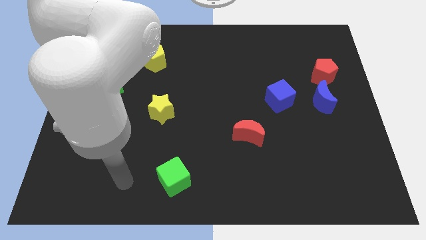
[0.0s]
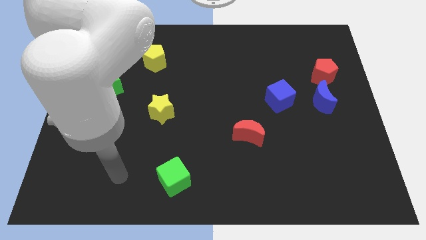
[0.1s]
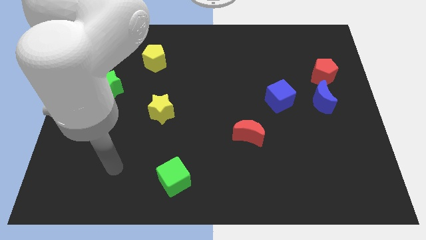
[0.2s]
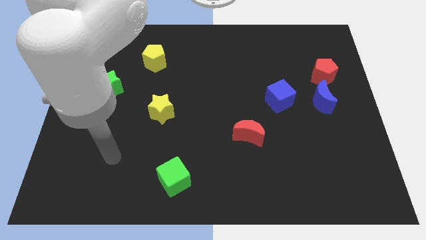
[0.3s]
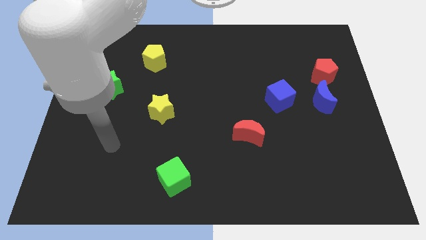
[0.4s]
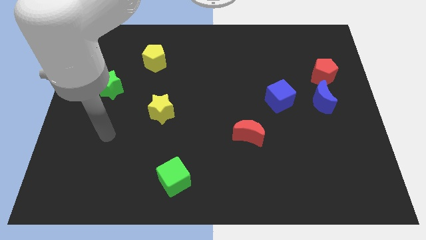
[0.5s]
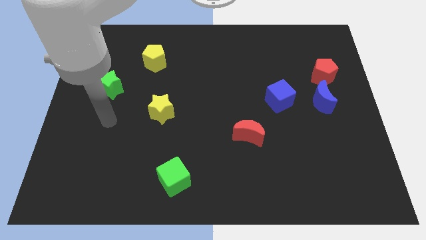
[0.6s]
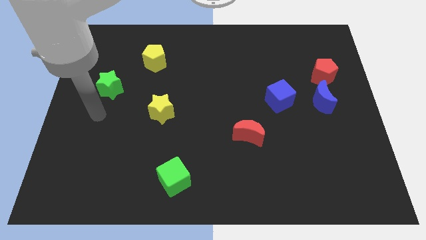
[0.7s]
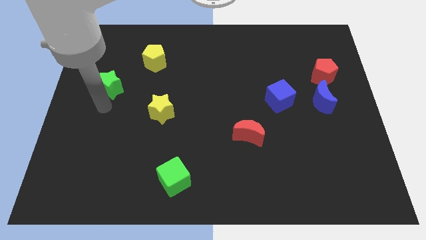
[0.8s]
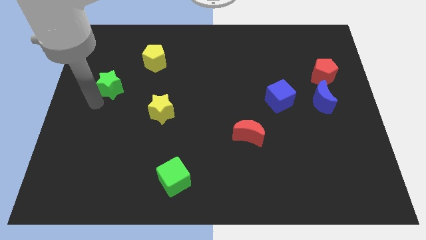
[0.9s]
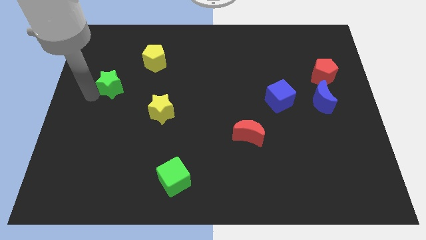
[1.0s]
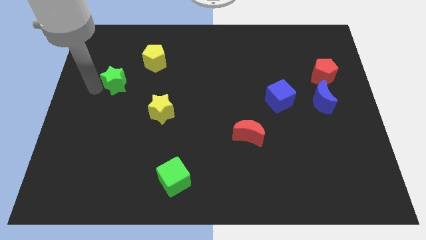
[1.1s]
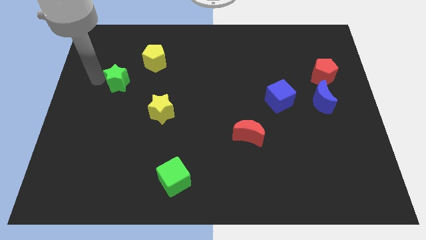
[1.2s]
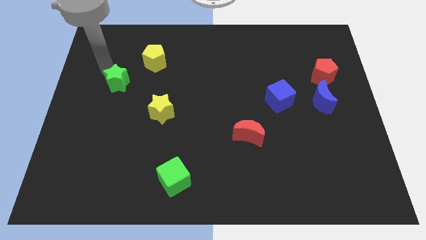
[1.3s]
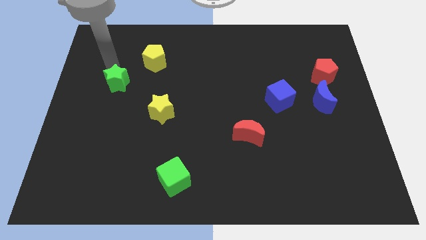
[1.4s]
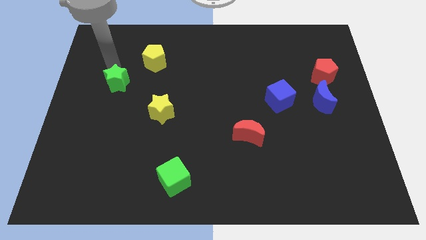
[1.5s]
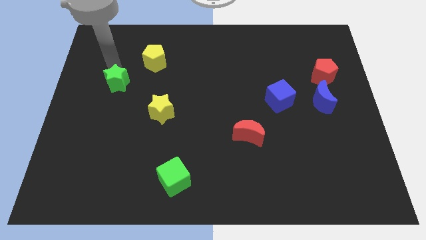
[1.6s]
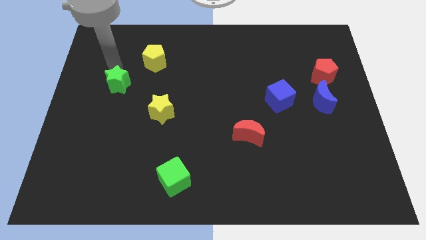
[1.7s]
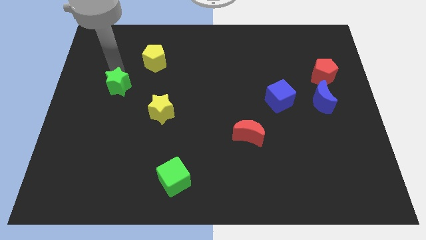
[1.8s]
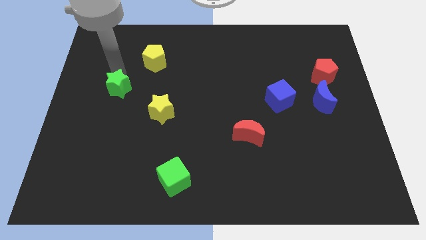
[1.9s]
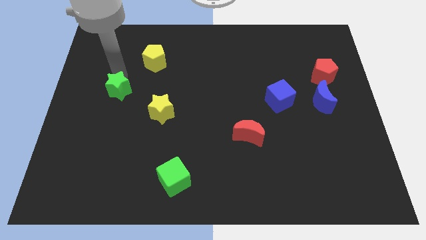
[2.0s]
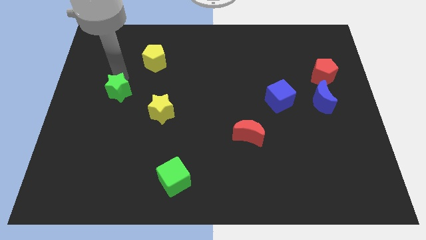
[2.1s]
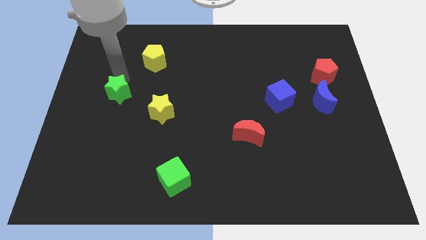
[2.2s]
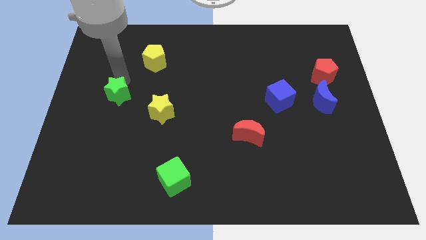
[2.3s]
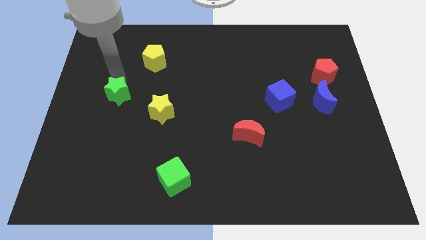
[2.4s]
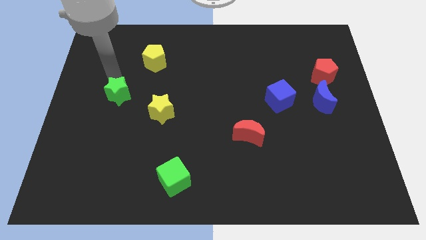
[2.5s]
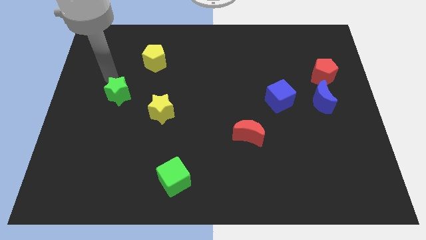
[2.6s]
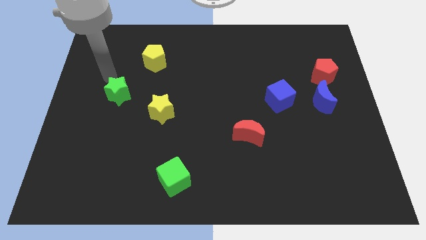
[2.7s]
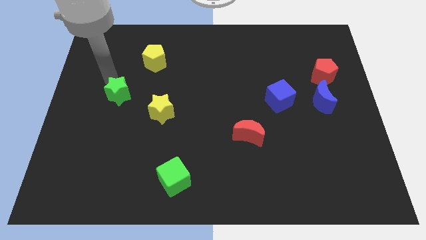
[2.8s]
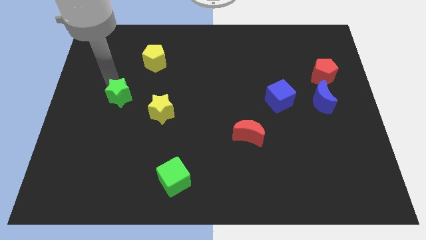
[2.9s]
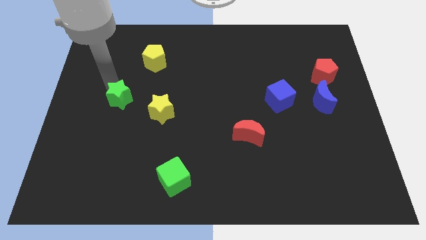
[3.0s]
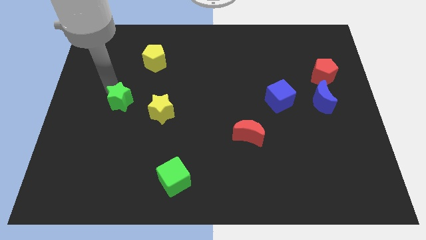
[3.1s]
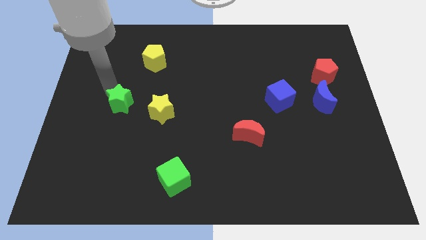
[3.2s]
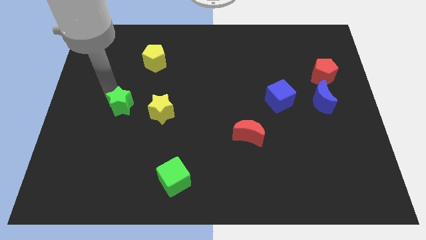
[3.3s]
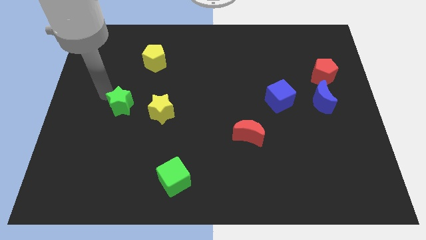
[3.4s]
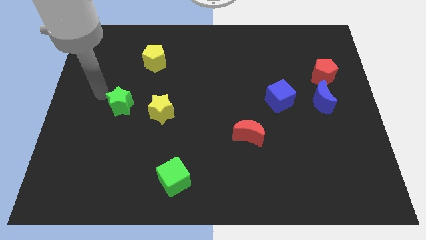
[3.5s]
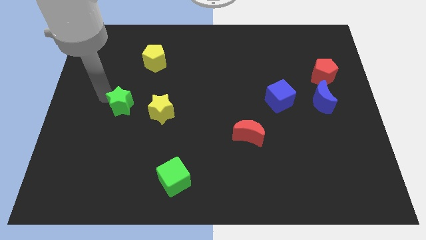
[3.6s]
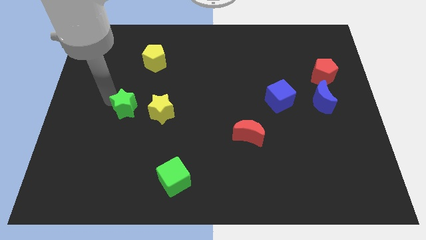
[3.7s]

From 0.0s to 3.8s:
move the green star somewhat downwards and to the right

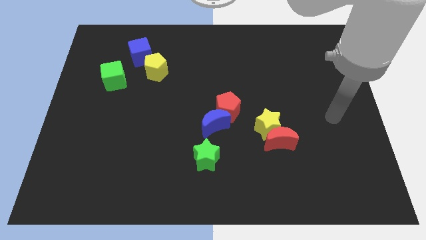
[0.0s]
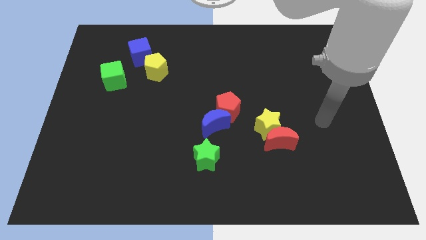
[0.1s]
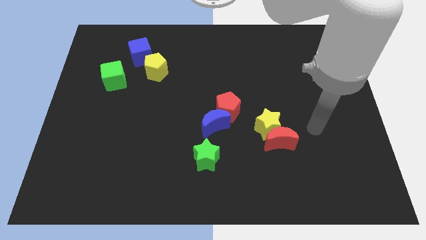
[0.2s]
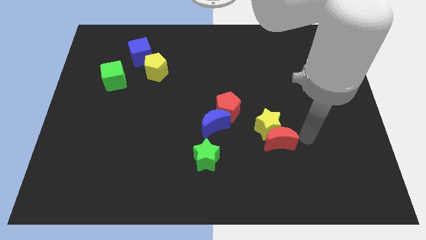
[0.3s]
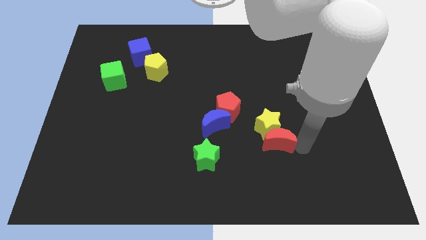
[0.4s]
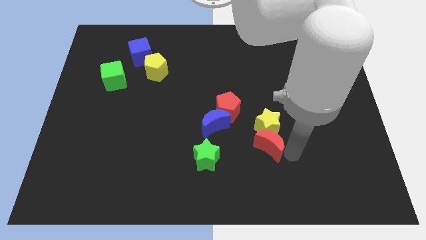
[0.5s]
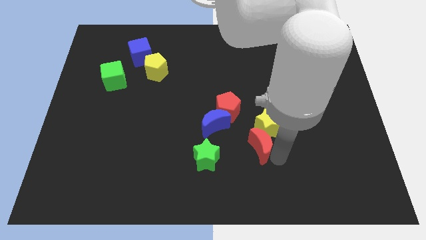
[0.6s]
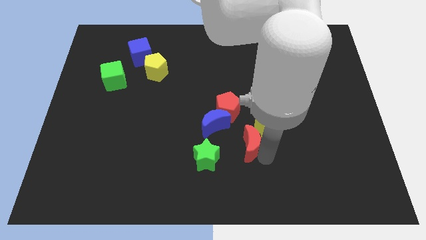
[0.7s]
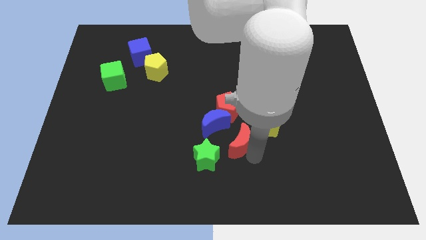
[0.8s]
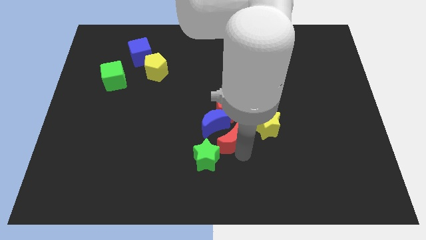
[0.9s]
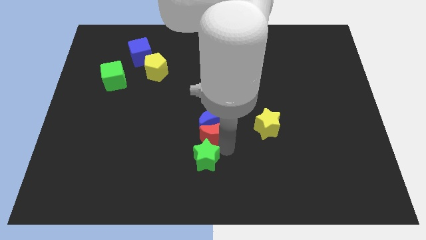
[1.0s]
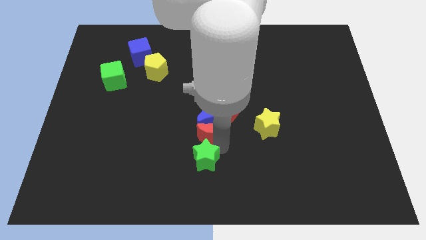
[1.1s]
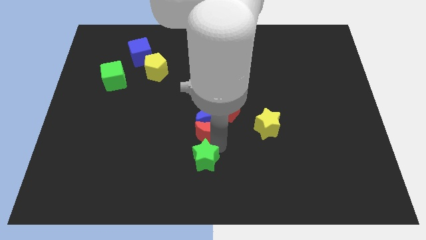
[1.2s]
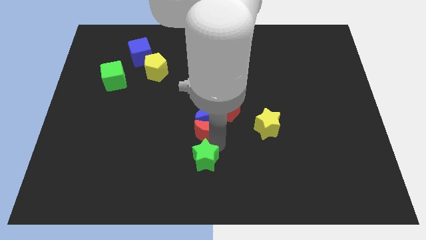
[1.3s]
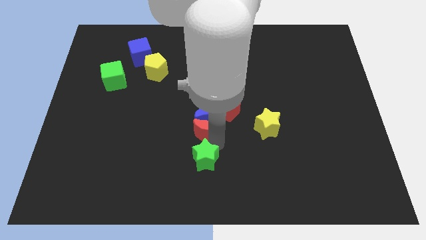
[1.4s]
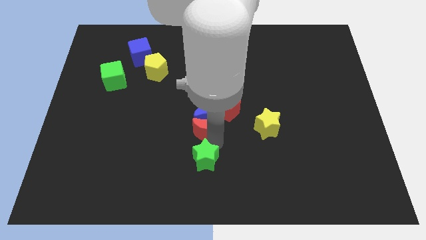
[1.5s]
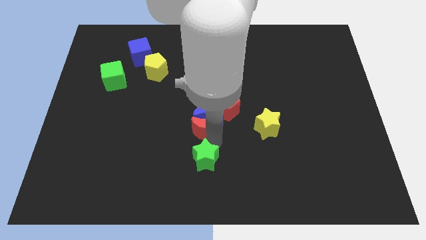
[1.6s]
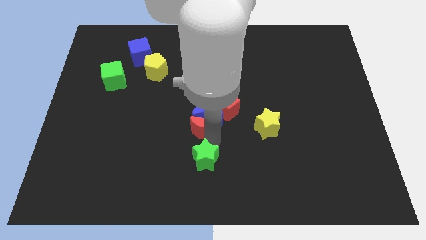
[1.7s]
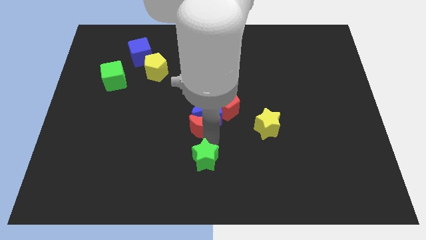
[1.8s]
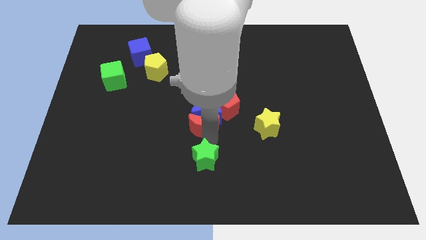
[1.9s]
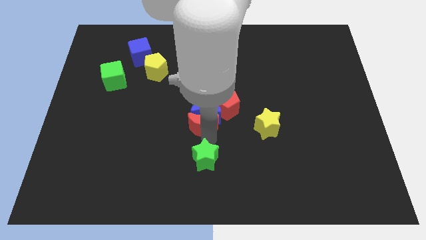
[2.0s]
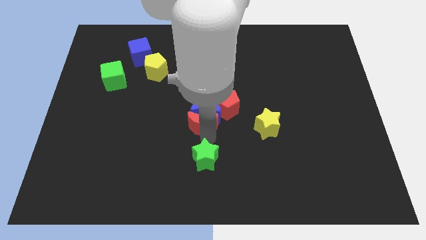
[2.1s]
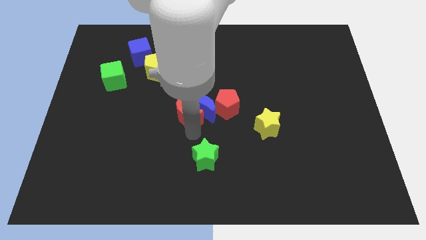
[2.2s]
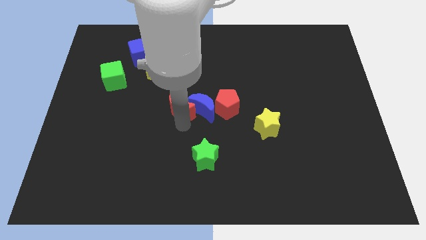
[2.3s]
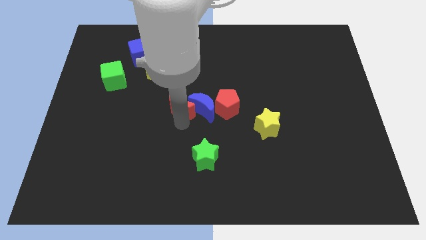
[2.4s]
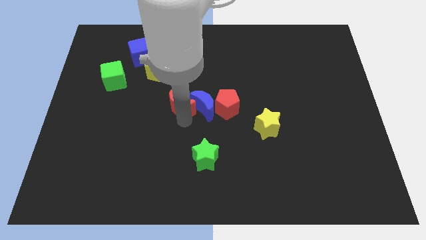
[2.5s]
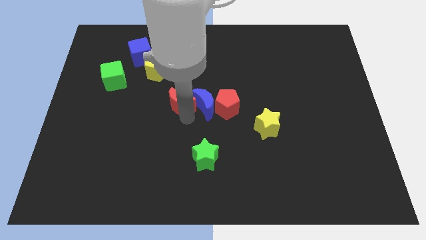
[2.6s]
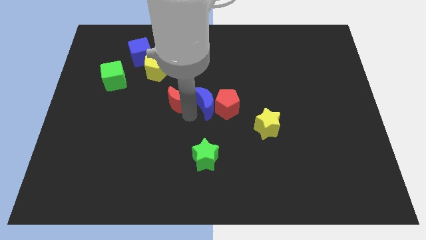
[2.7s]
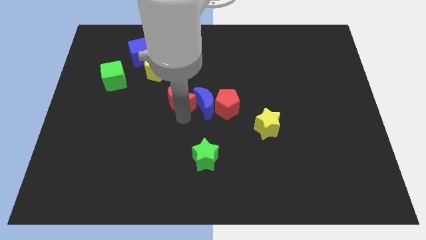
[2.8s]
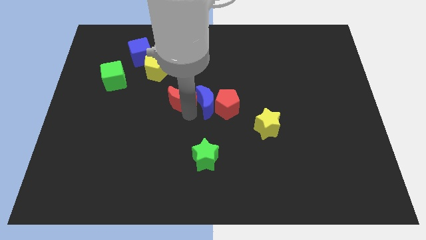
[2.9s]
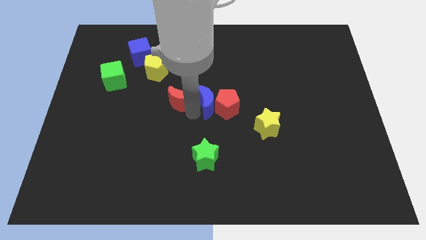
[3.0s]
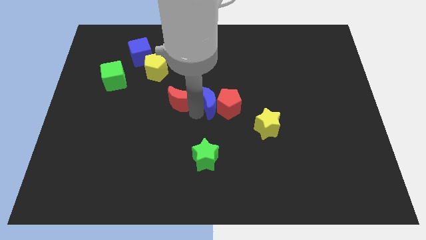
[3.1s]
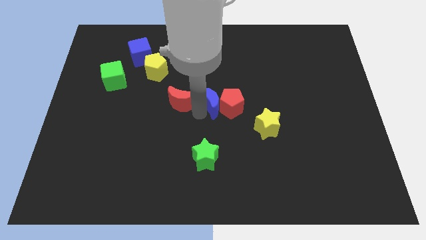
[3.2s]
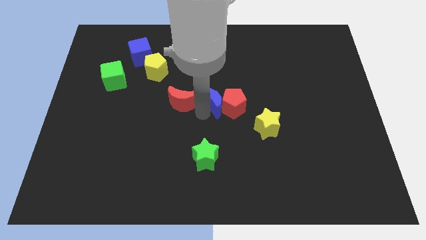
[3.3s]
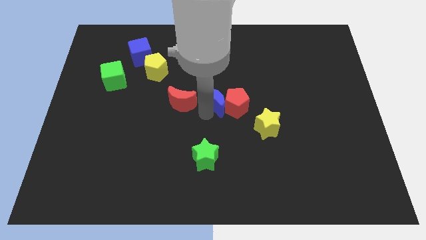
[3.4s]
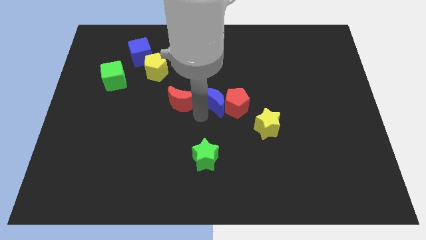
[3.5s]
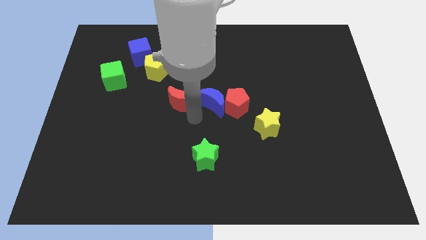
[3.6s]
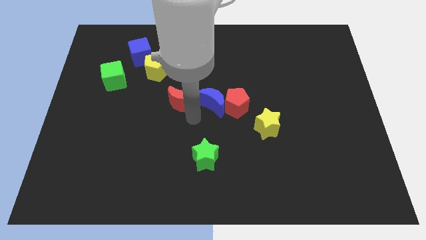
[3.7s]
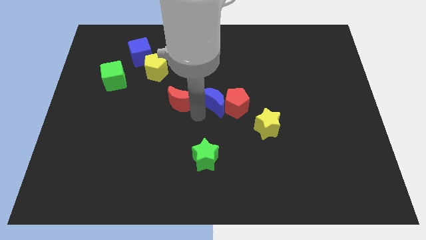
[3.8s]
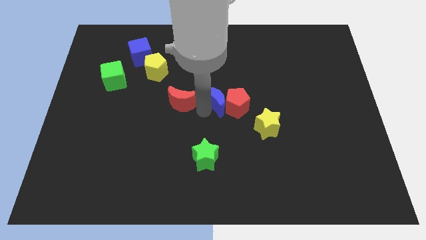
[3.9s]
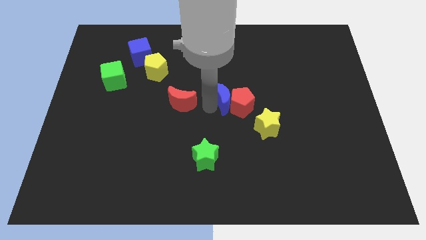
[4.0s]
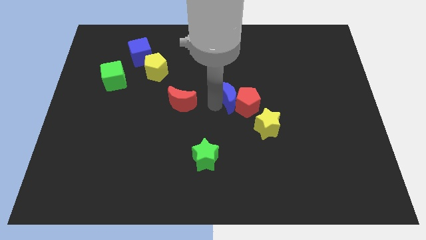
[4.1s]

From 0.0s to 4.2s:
push the blue moon upwards and right a bit

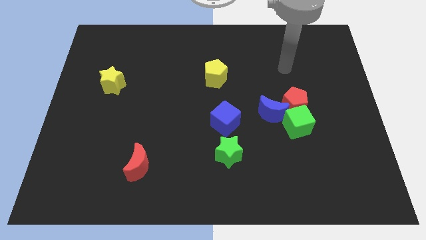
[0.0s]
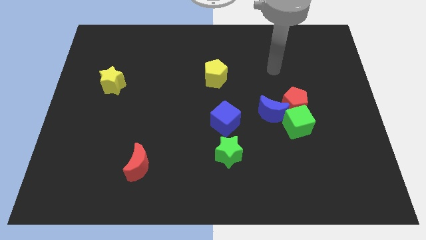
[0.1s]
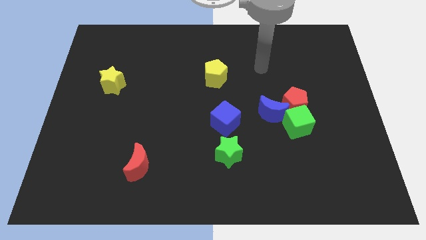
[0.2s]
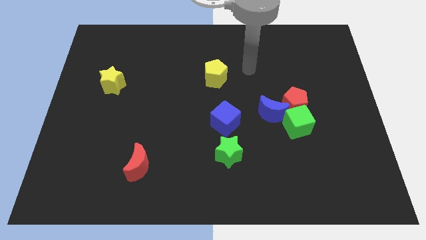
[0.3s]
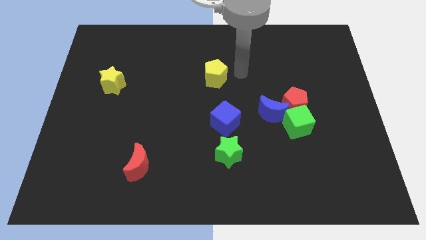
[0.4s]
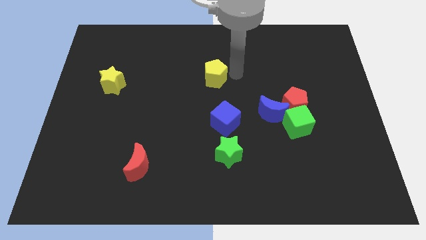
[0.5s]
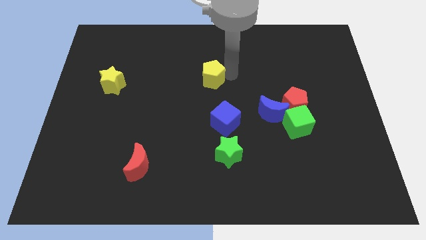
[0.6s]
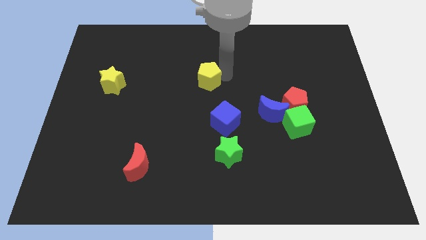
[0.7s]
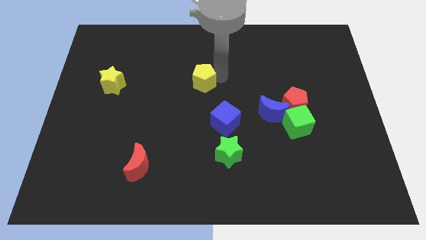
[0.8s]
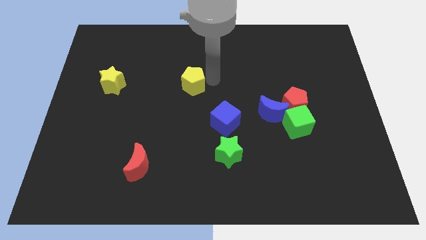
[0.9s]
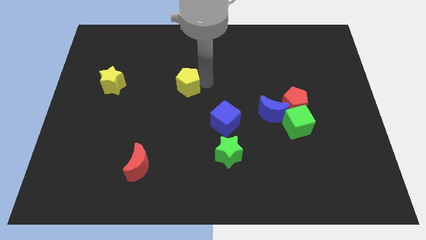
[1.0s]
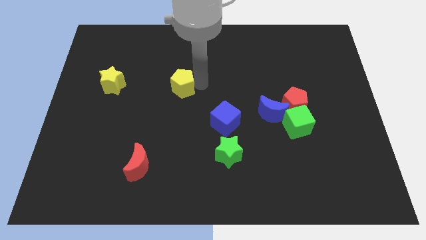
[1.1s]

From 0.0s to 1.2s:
slide the yellow pentagon to the left a bit
